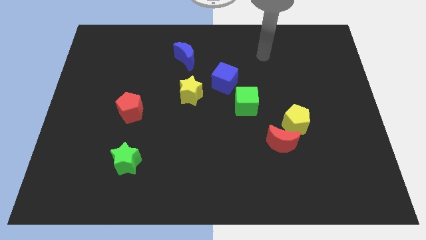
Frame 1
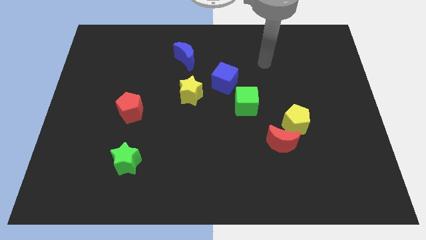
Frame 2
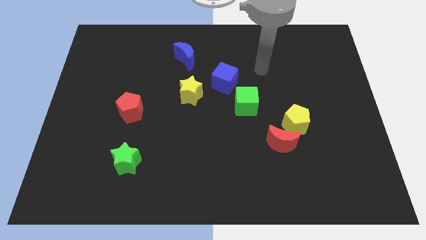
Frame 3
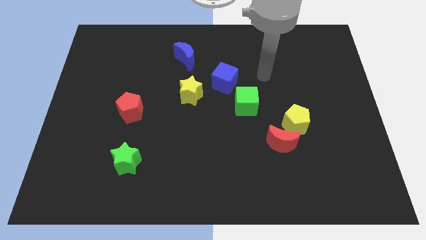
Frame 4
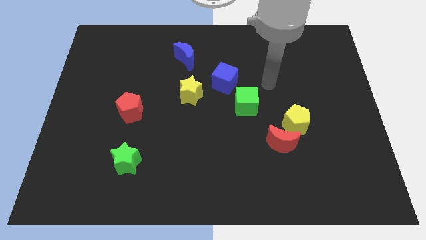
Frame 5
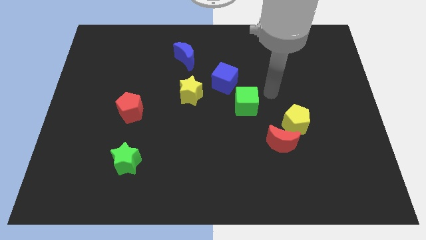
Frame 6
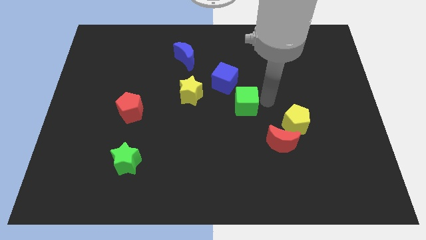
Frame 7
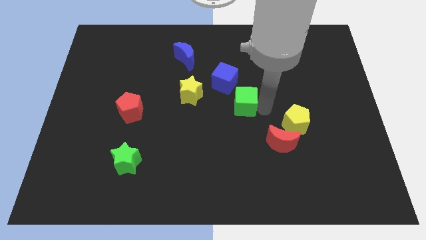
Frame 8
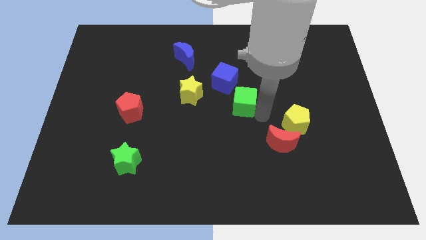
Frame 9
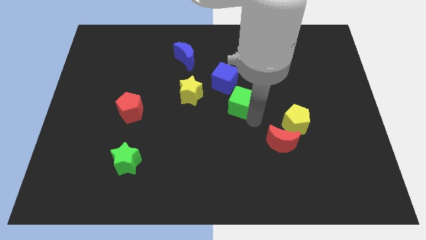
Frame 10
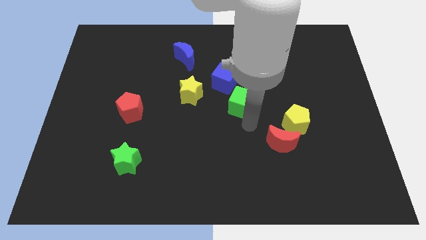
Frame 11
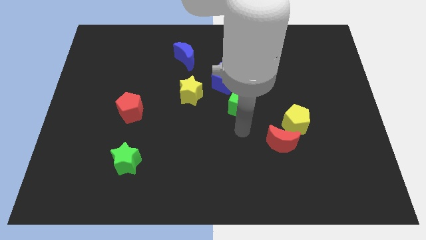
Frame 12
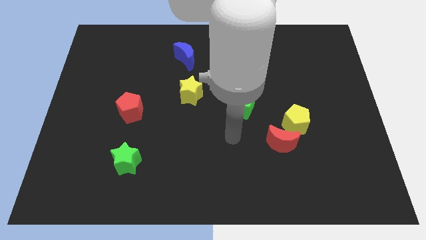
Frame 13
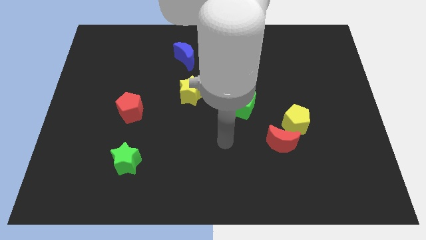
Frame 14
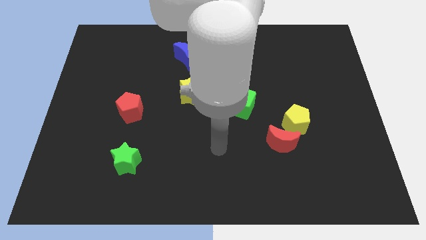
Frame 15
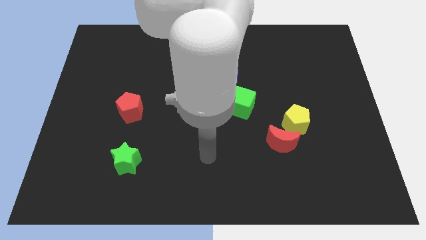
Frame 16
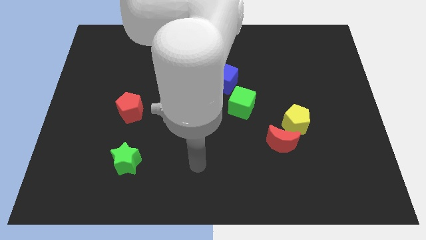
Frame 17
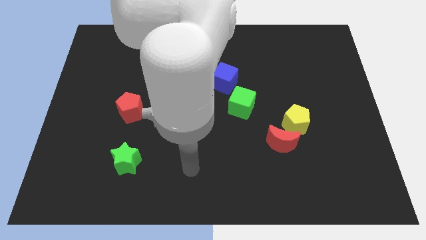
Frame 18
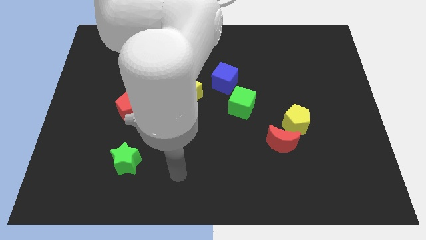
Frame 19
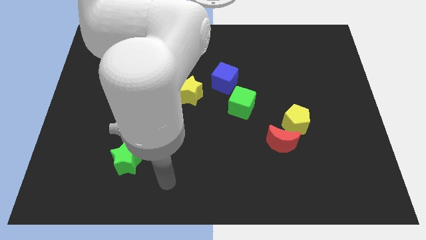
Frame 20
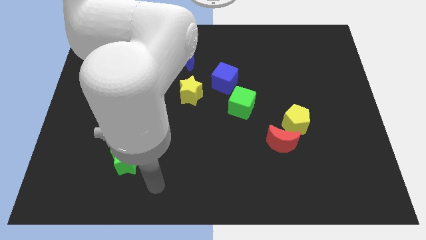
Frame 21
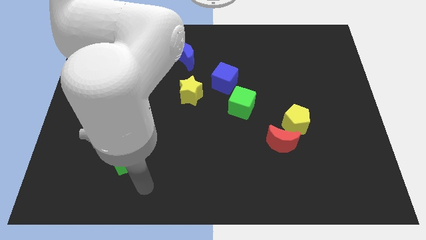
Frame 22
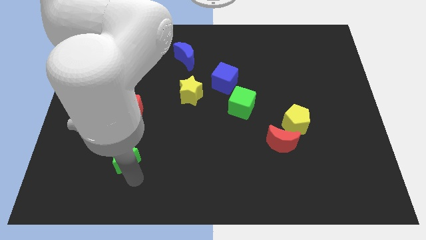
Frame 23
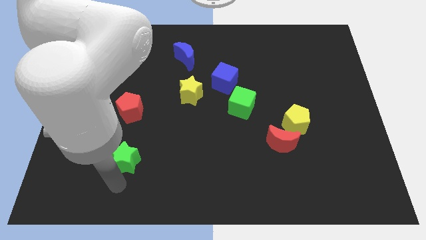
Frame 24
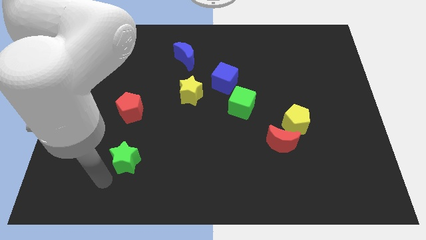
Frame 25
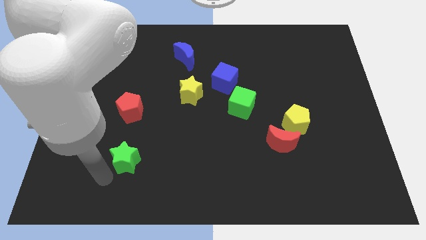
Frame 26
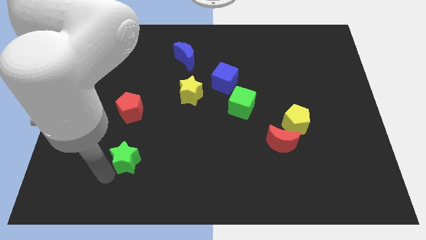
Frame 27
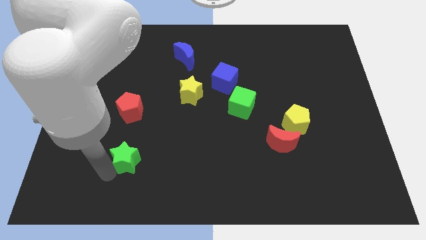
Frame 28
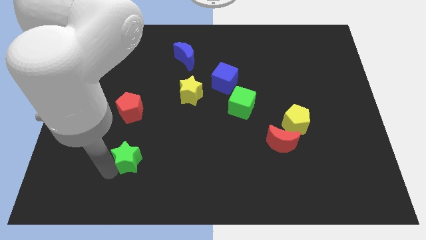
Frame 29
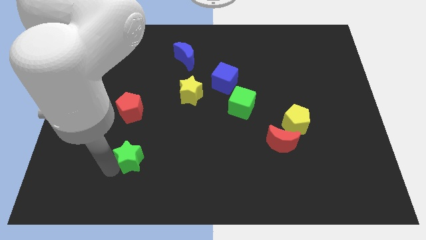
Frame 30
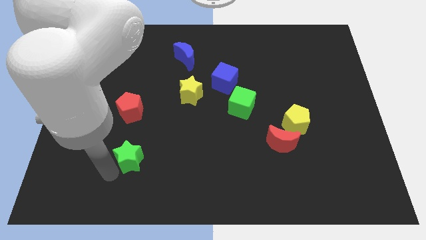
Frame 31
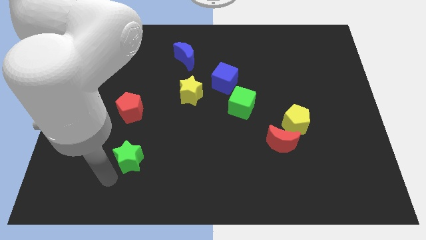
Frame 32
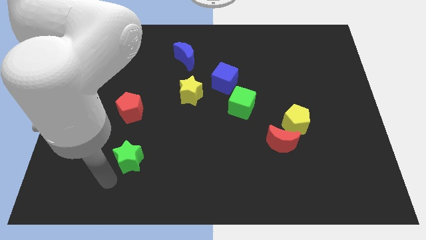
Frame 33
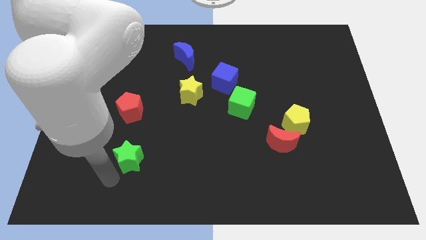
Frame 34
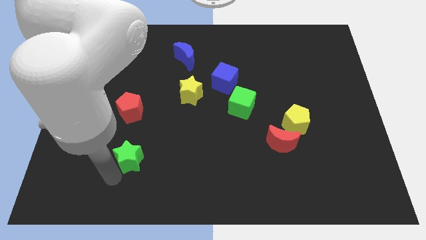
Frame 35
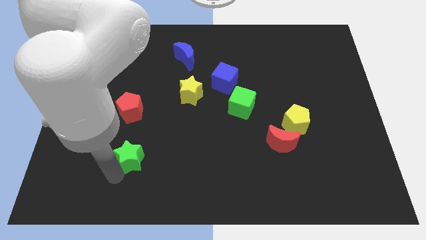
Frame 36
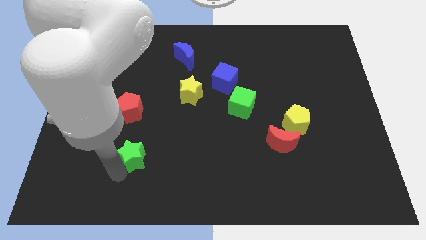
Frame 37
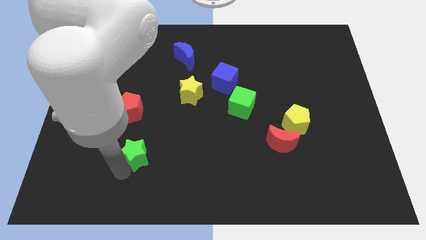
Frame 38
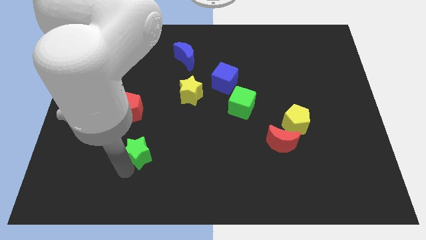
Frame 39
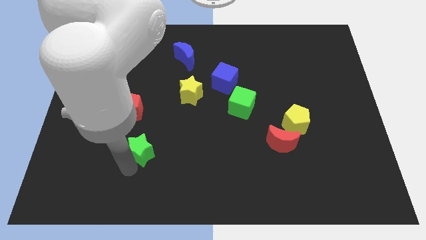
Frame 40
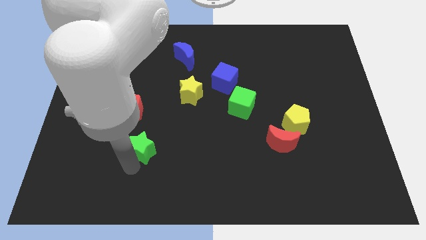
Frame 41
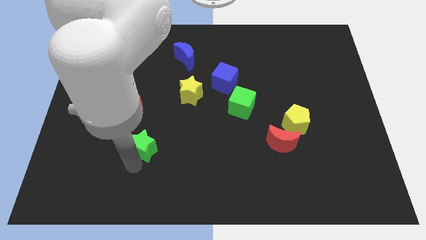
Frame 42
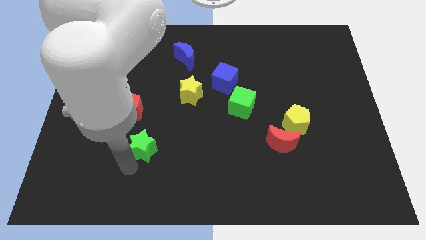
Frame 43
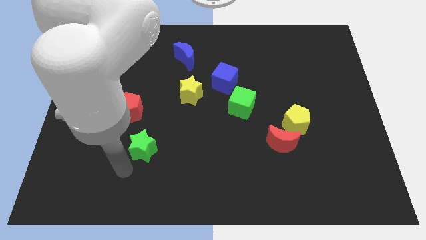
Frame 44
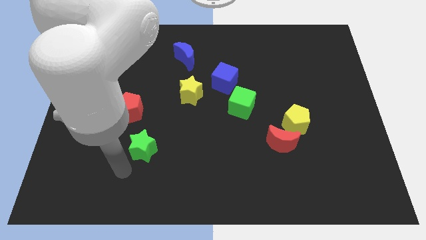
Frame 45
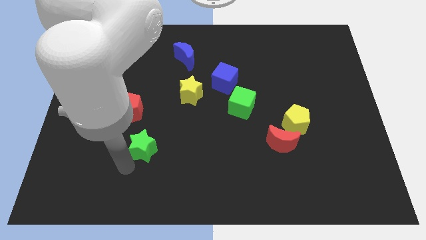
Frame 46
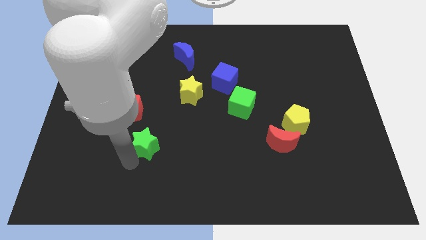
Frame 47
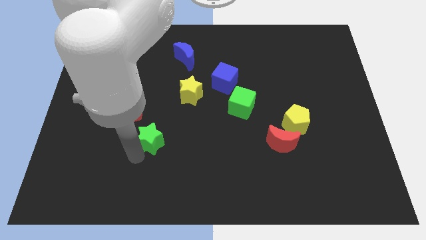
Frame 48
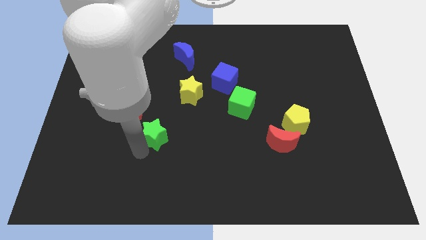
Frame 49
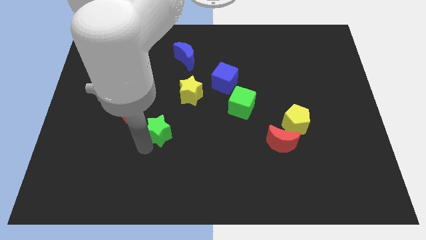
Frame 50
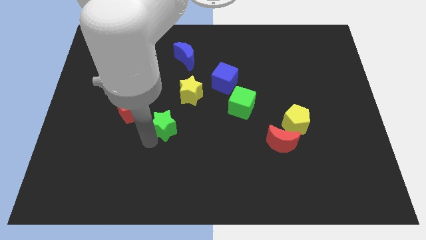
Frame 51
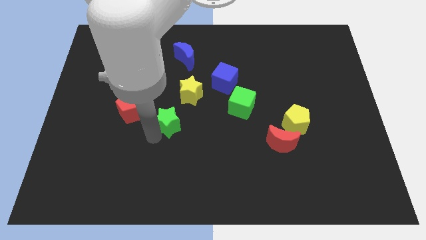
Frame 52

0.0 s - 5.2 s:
move the green star to the middle of the board

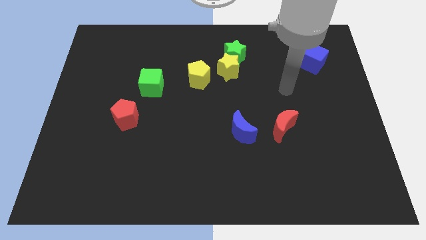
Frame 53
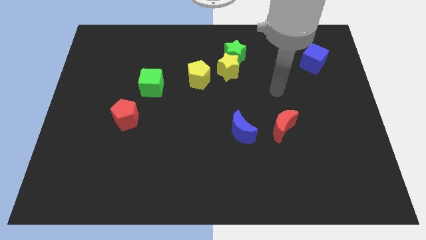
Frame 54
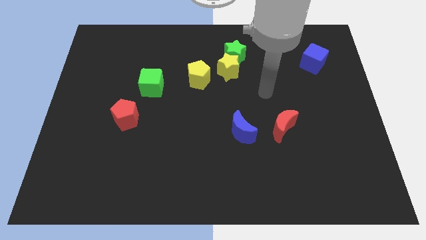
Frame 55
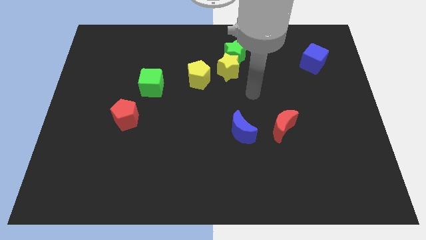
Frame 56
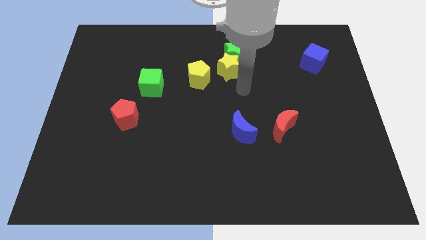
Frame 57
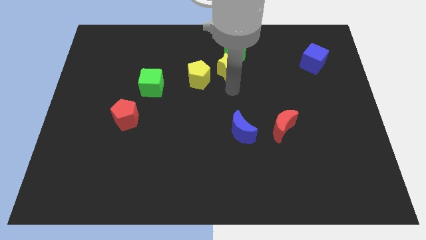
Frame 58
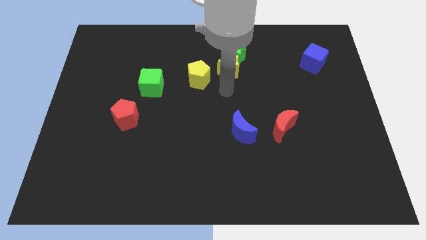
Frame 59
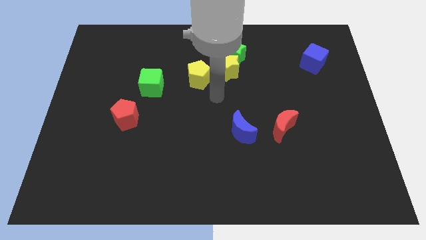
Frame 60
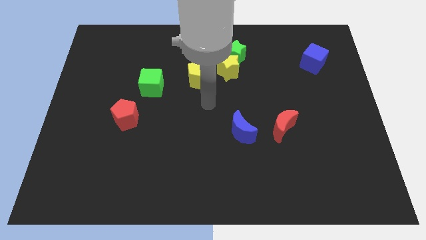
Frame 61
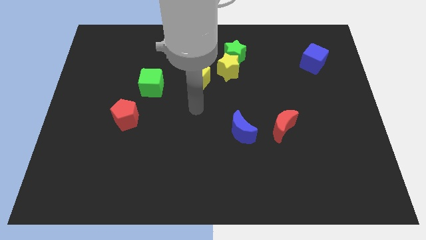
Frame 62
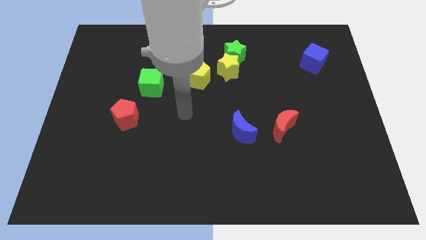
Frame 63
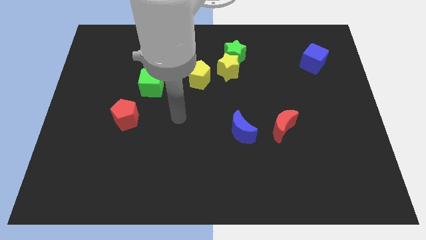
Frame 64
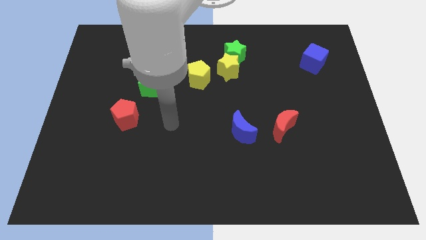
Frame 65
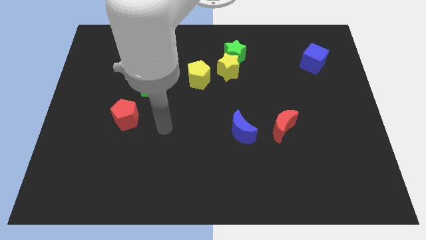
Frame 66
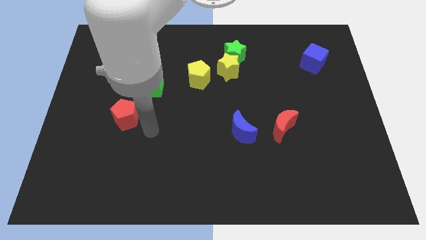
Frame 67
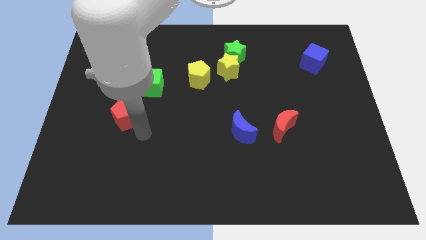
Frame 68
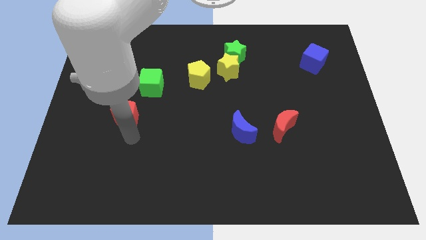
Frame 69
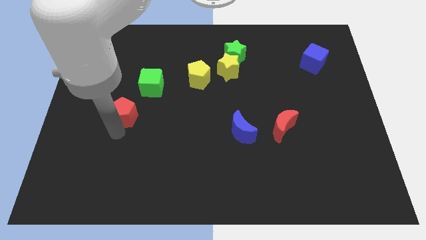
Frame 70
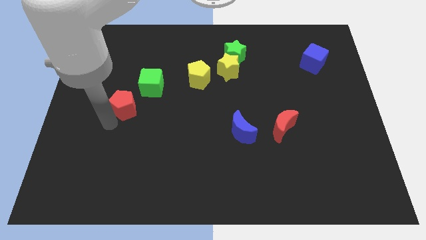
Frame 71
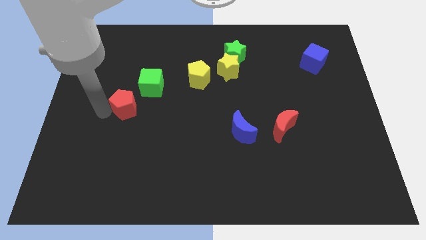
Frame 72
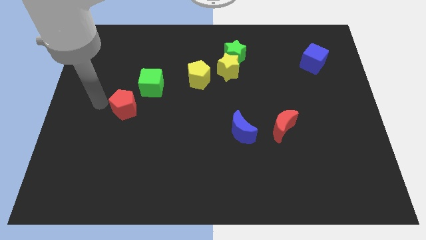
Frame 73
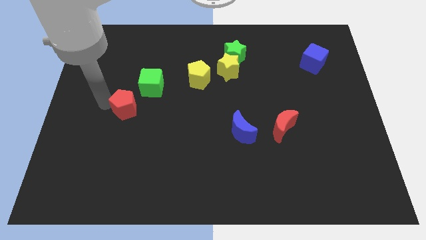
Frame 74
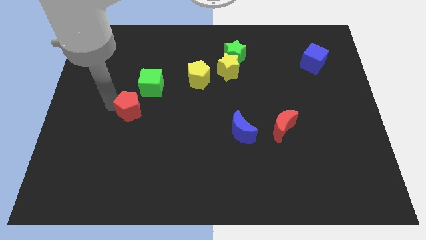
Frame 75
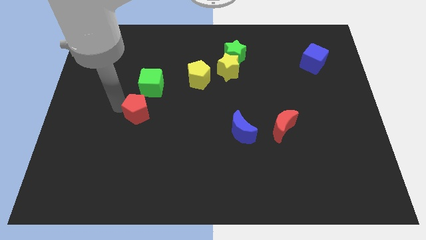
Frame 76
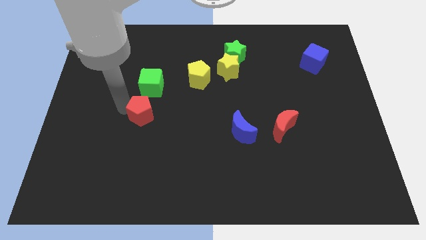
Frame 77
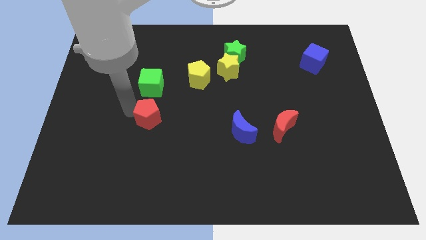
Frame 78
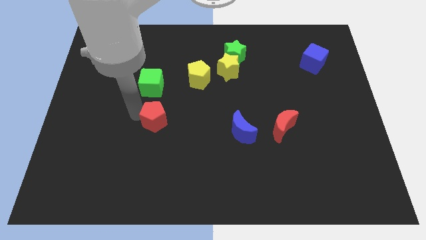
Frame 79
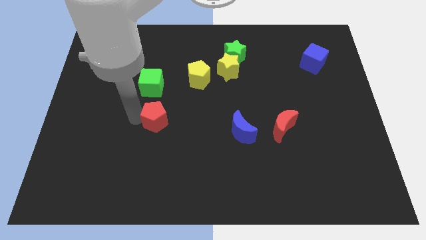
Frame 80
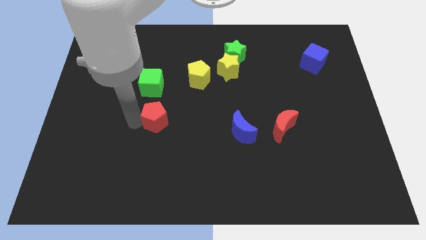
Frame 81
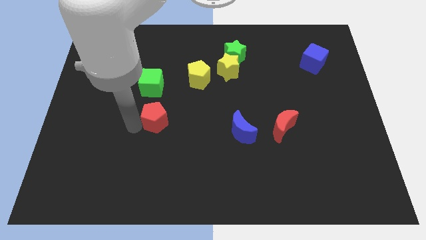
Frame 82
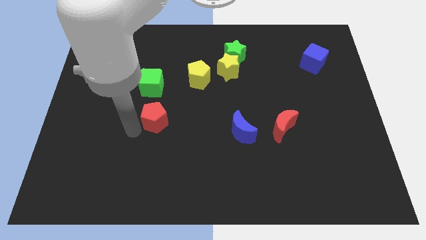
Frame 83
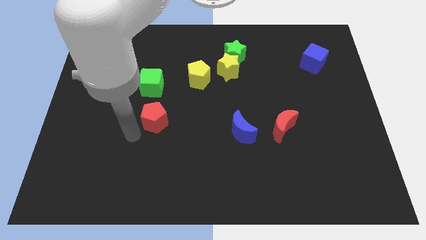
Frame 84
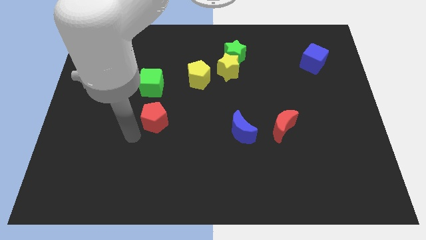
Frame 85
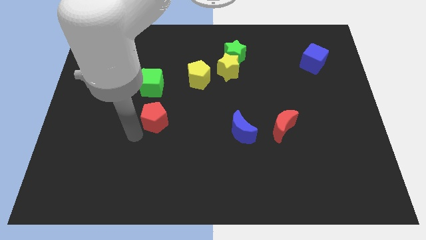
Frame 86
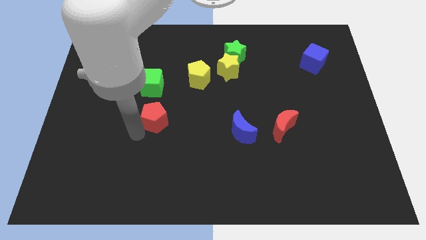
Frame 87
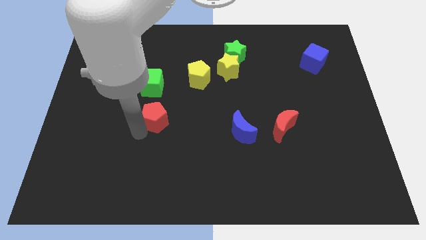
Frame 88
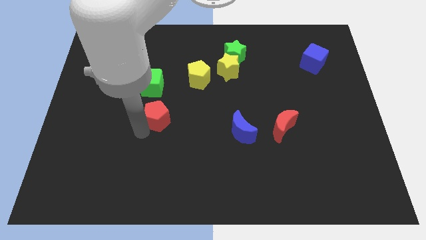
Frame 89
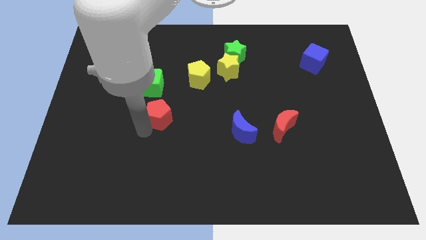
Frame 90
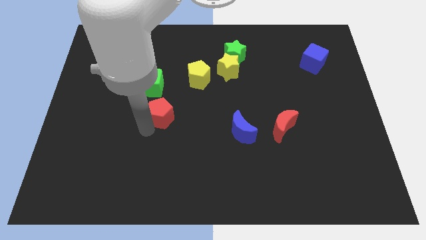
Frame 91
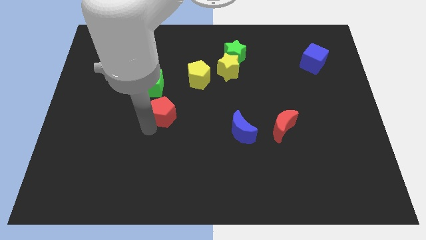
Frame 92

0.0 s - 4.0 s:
put the red pentagon to the center
